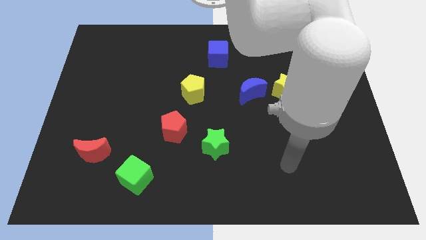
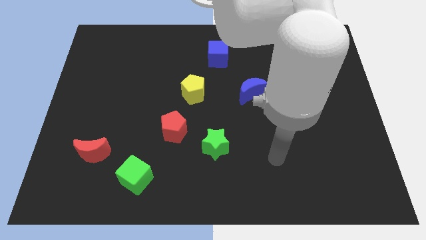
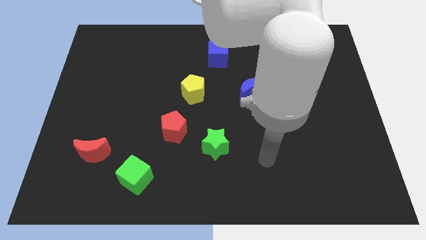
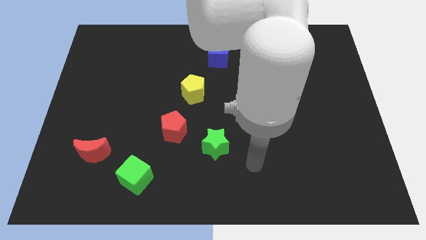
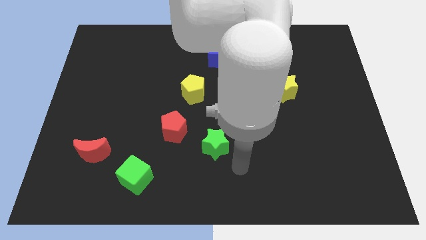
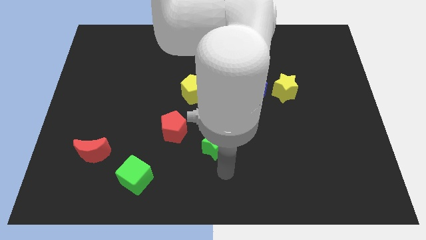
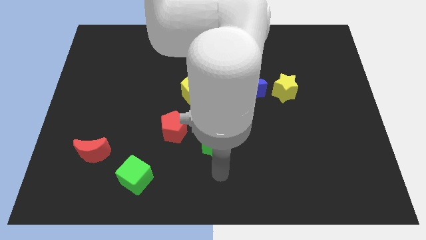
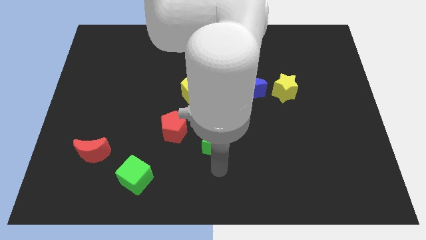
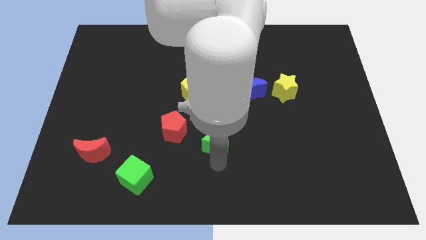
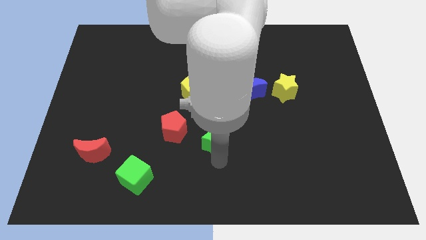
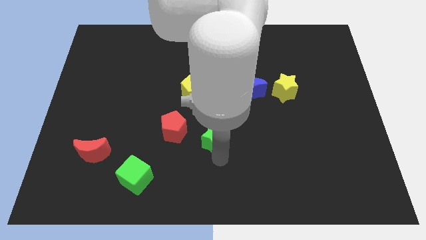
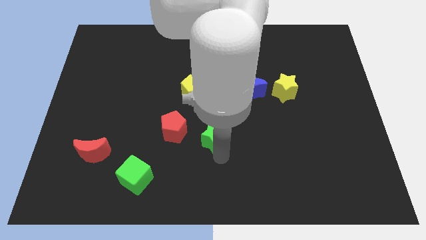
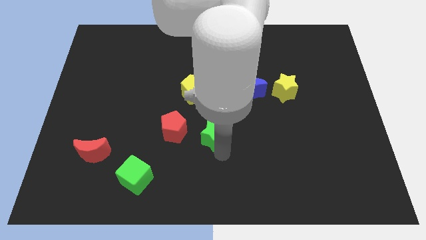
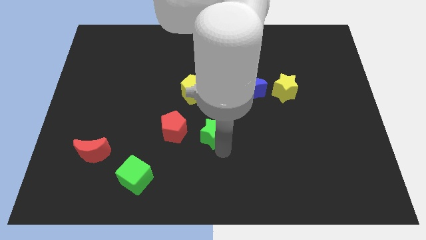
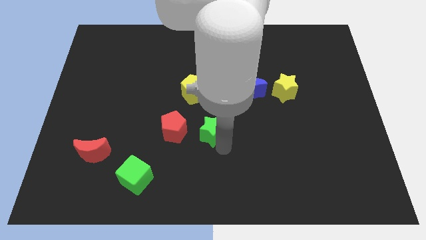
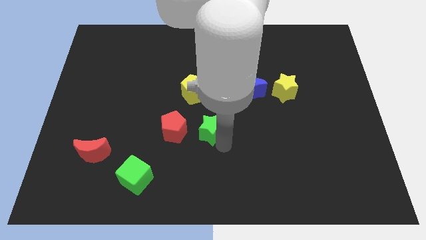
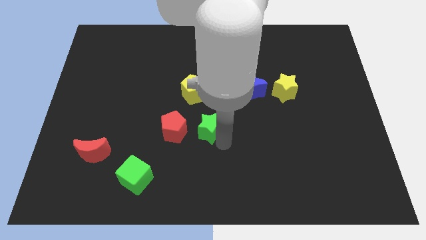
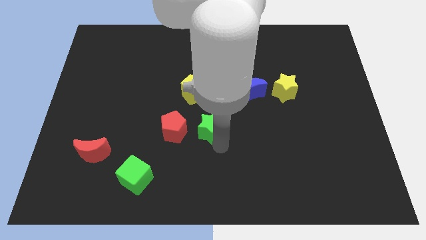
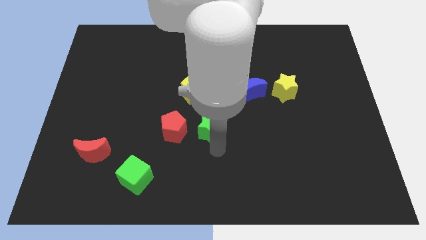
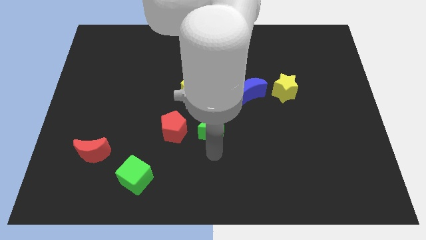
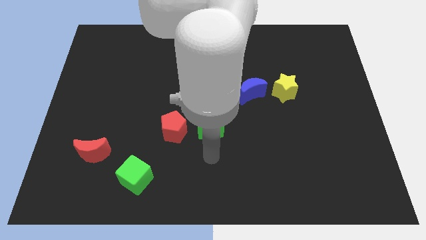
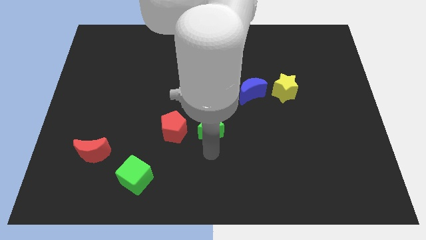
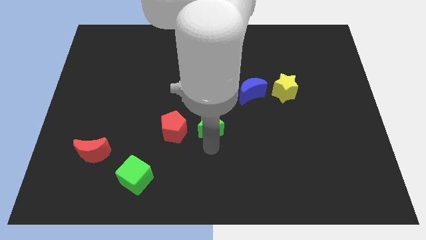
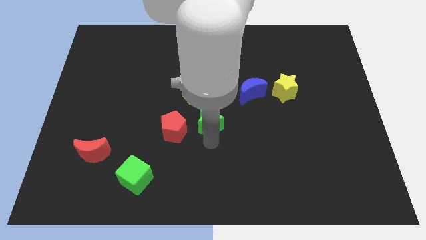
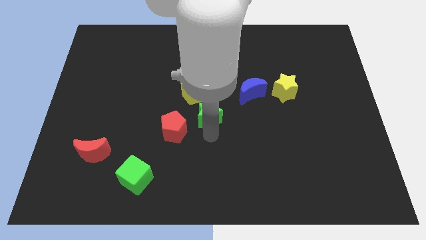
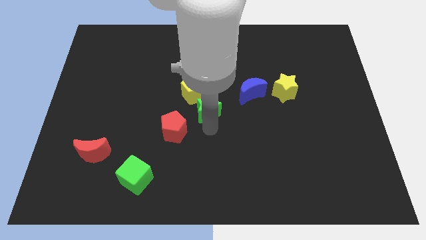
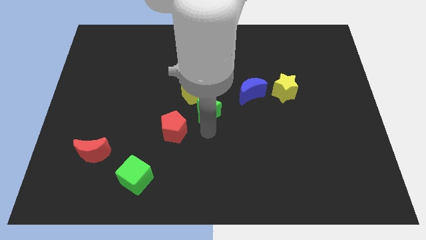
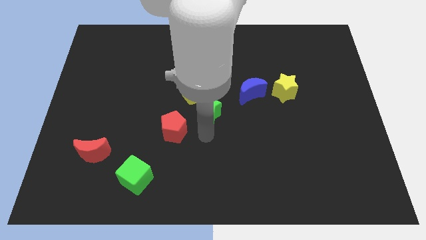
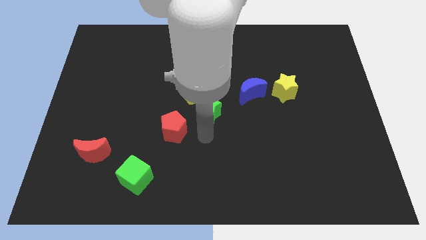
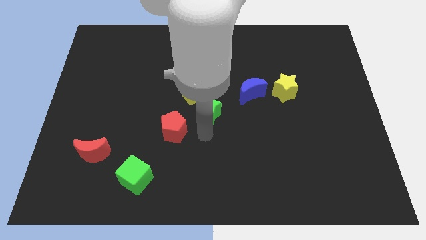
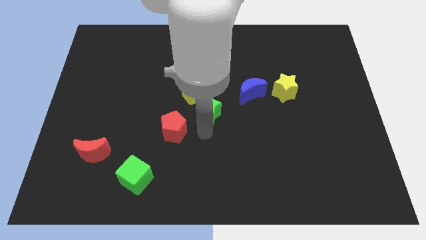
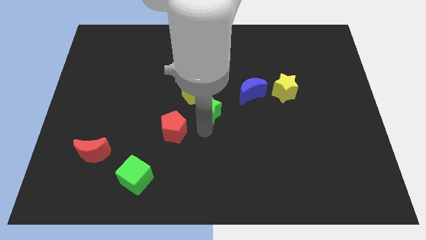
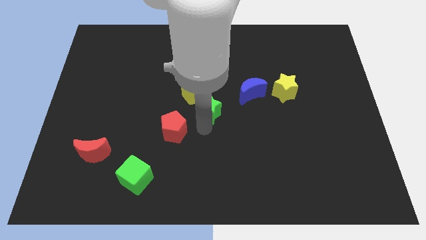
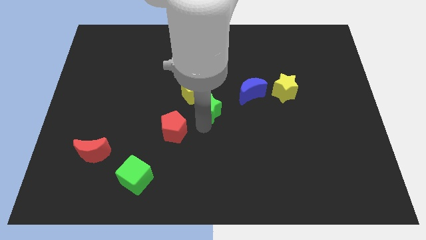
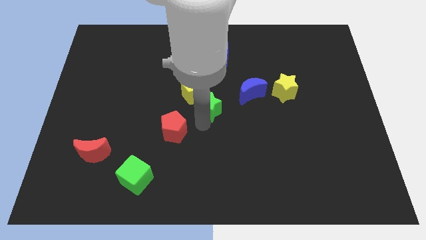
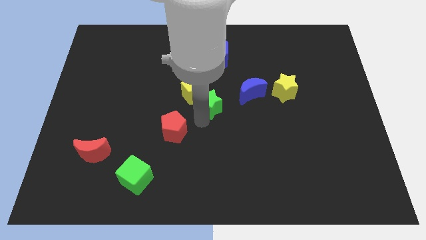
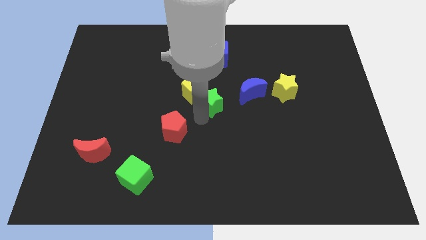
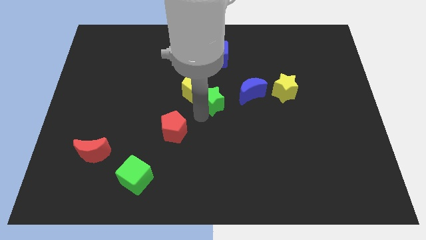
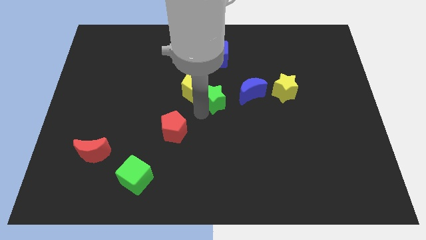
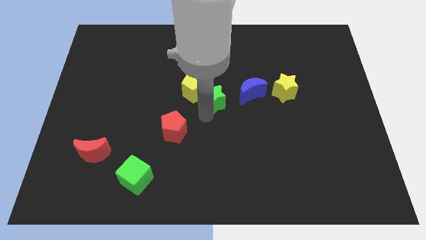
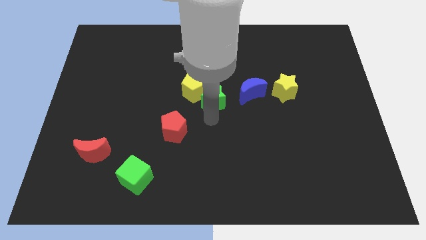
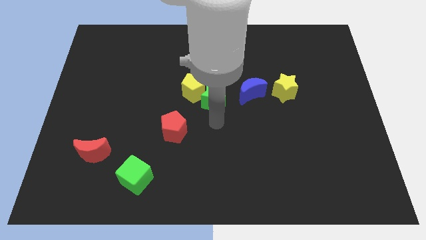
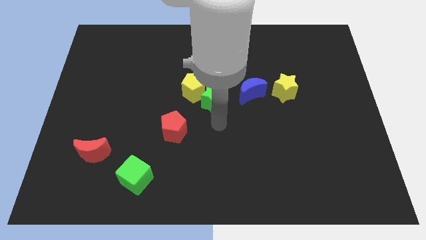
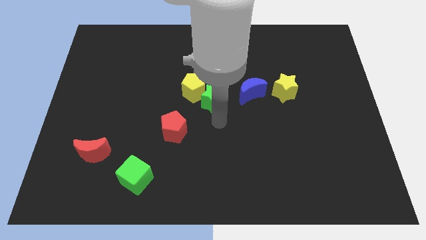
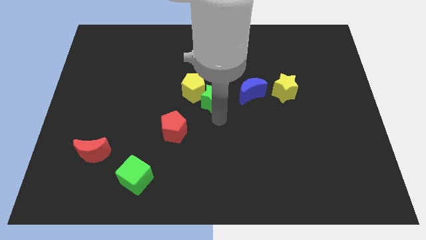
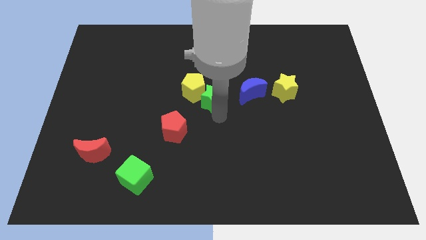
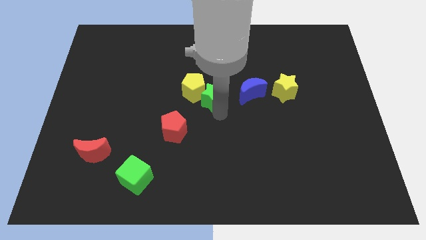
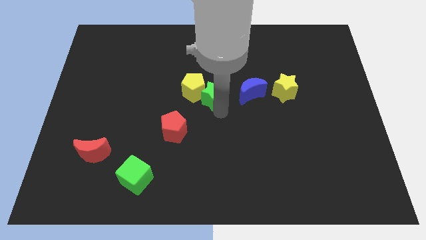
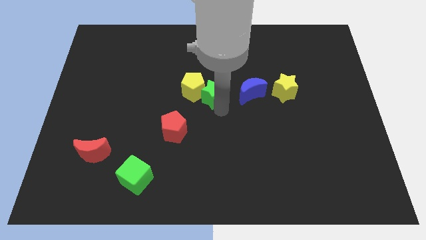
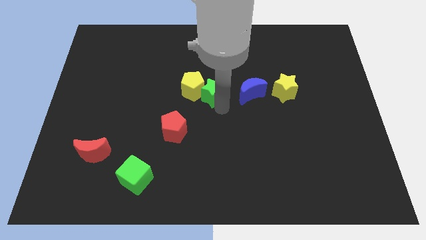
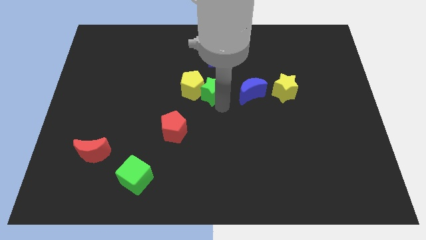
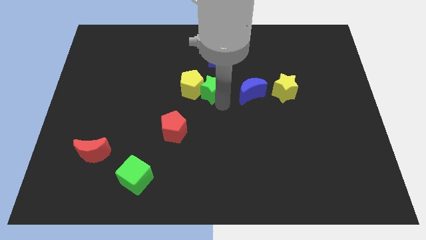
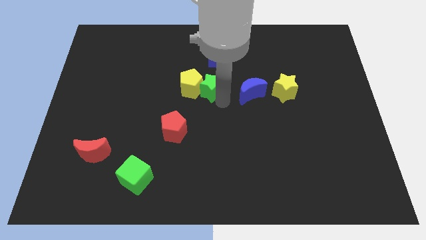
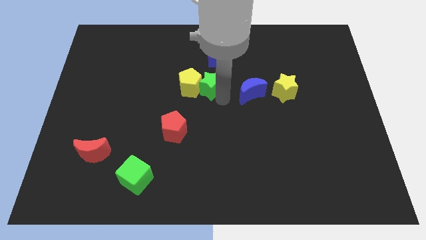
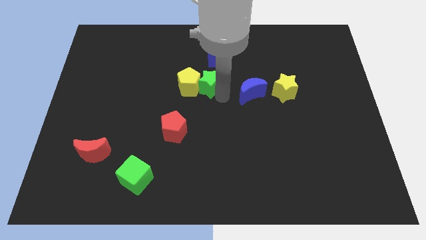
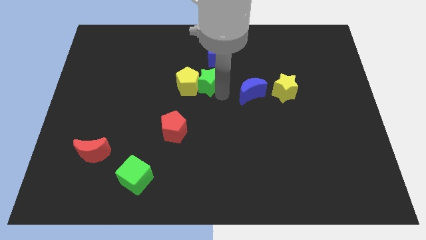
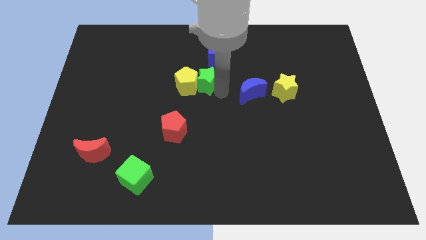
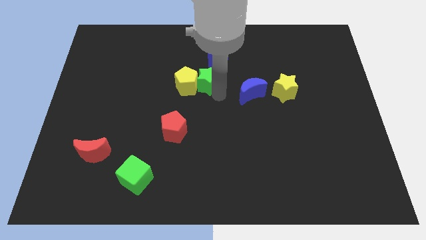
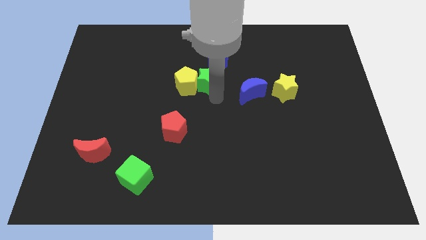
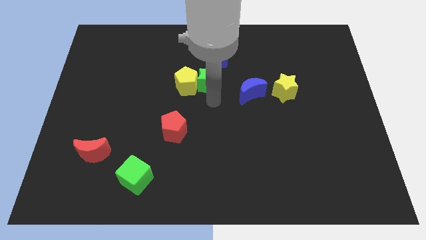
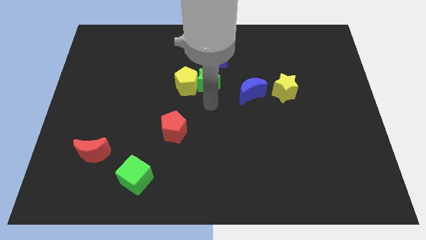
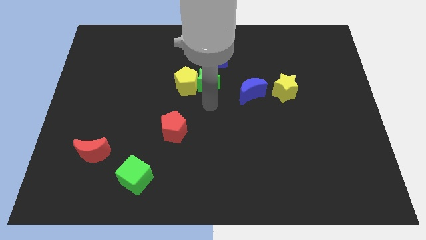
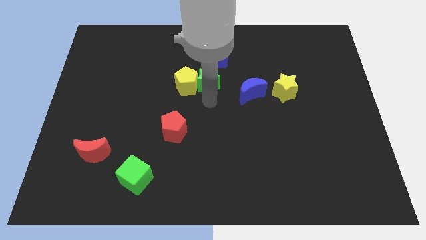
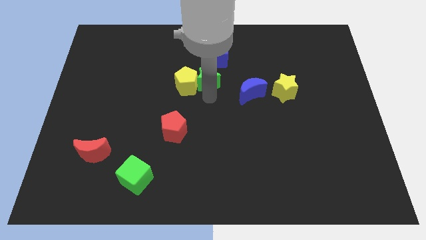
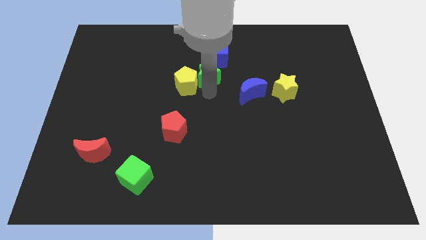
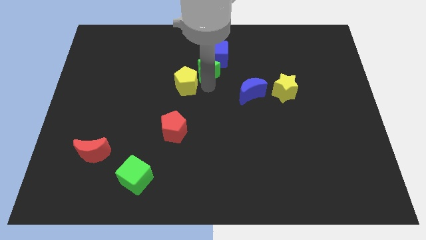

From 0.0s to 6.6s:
put the green star towards the blue cube

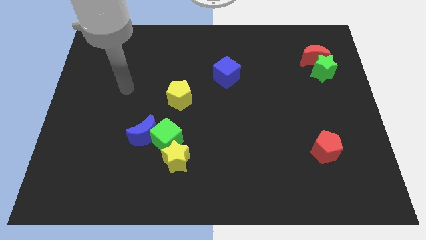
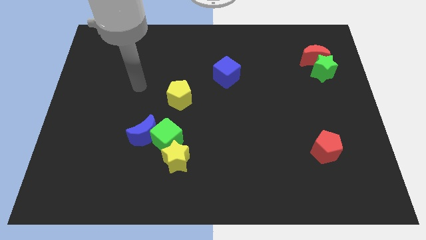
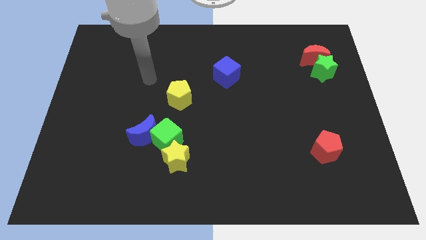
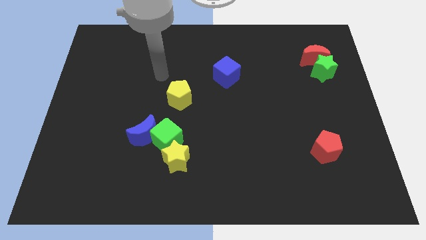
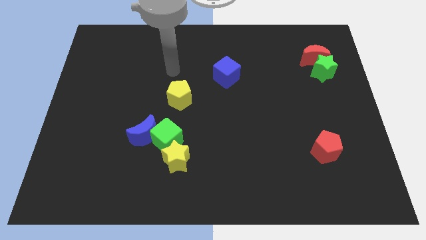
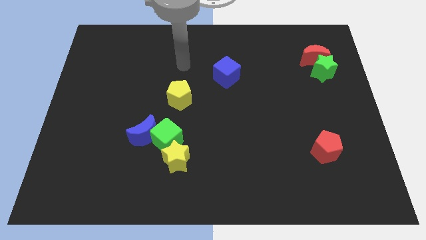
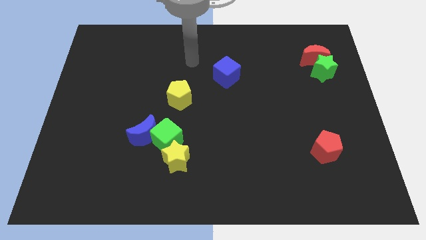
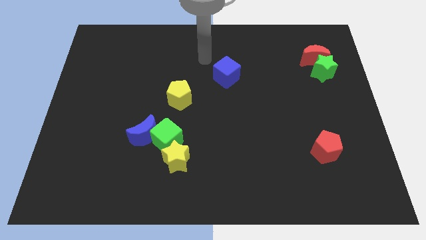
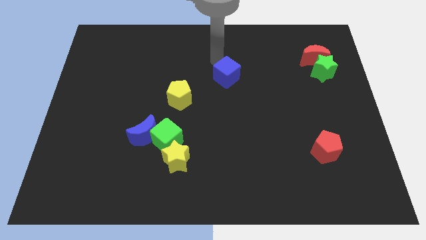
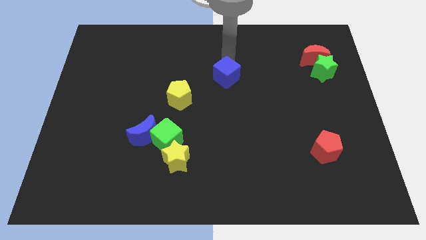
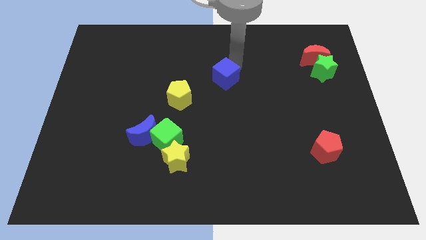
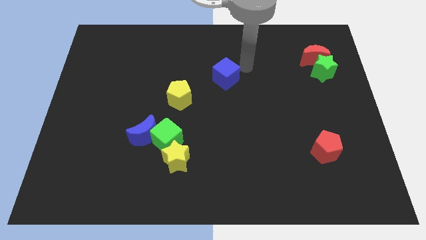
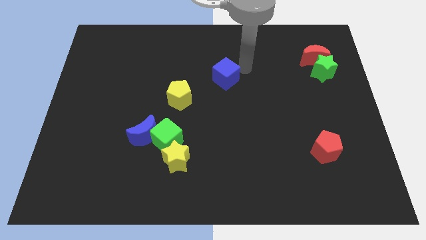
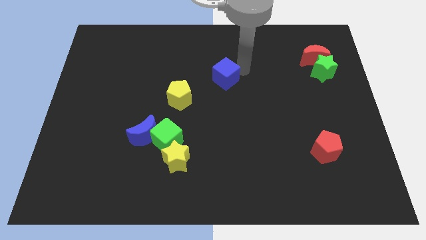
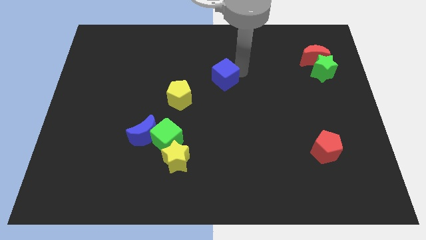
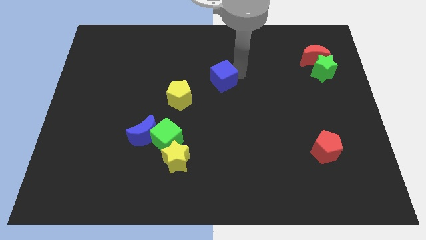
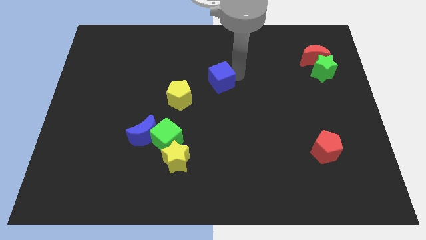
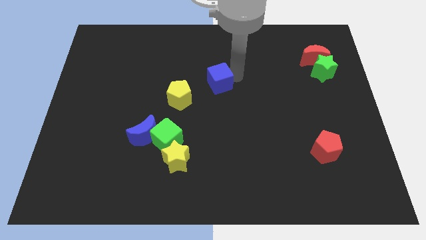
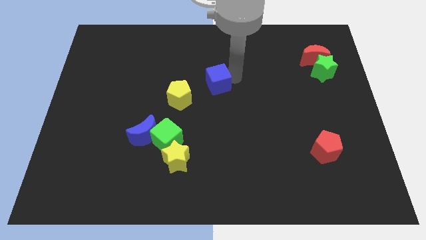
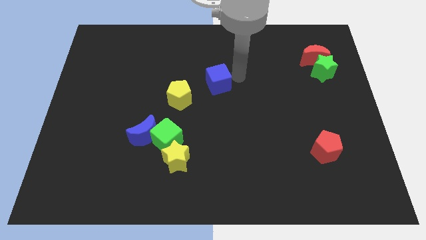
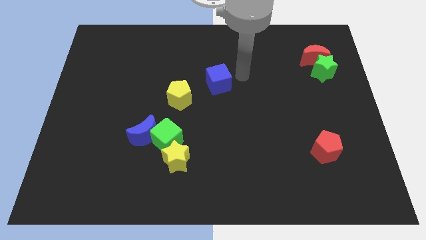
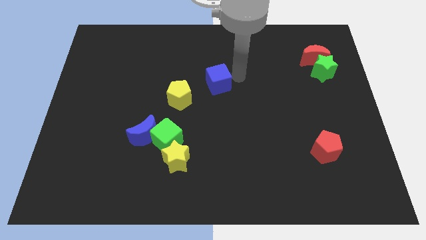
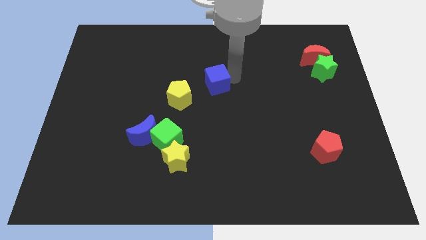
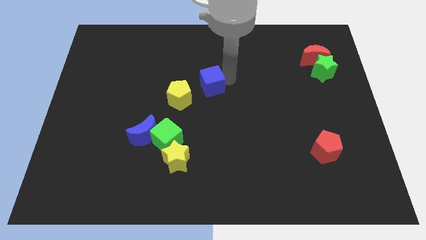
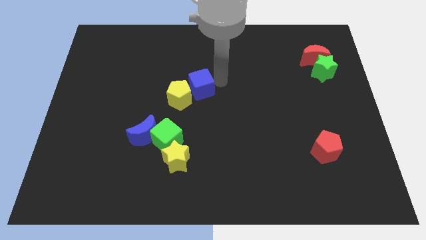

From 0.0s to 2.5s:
put the blue cube next to the yellow pentagon
